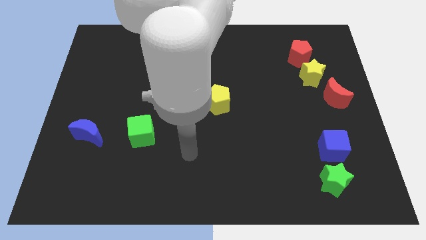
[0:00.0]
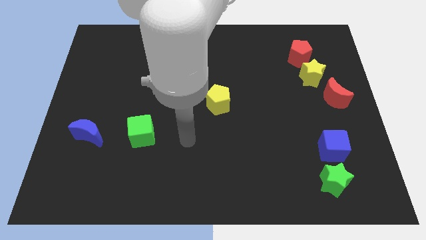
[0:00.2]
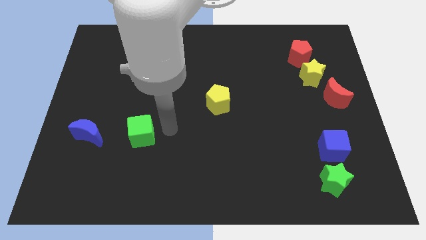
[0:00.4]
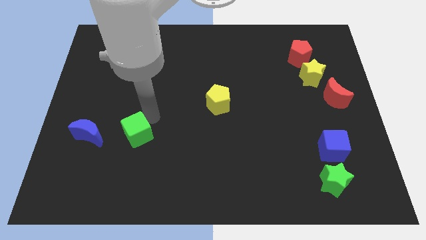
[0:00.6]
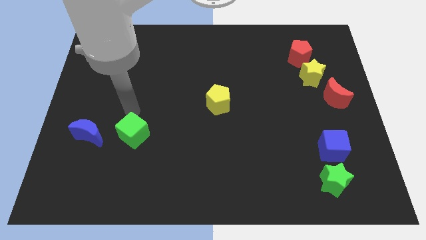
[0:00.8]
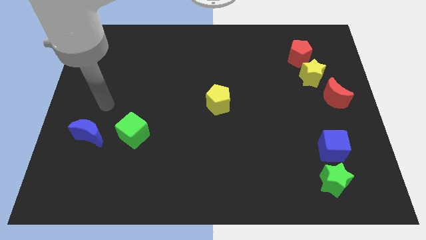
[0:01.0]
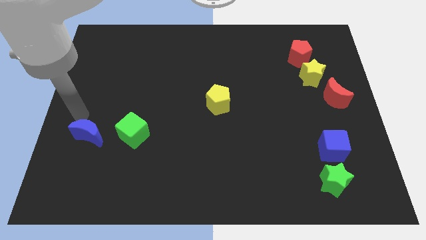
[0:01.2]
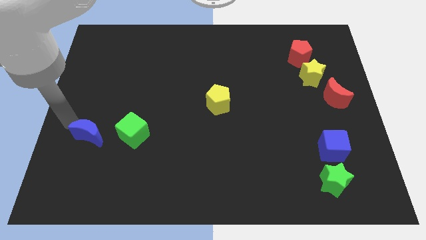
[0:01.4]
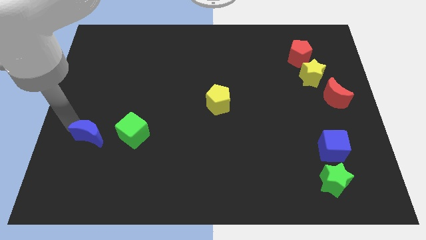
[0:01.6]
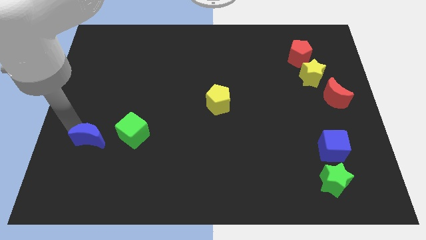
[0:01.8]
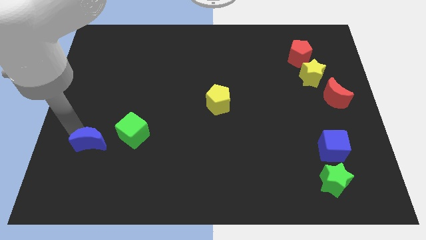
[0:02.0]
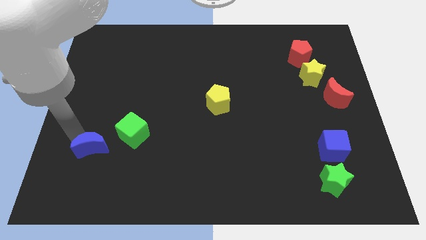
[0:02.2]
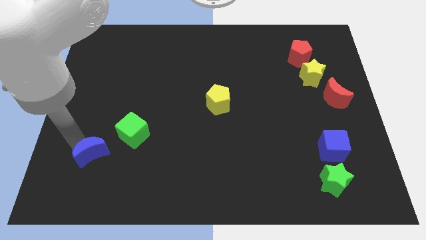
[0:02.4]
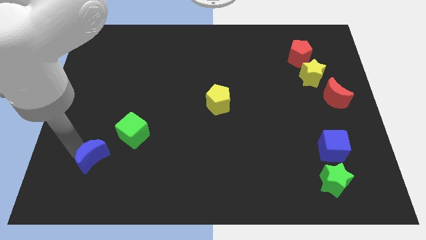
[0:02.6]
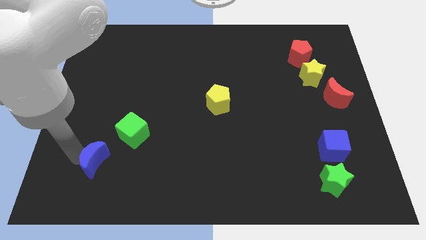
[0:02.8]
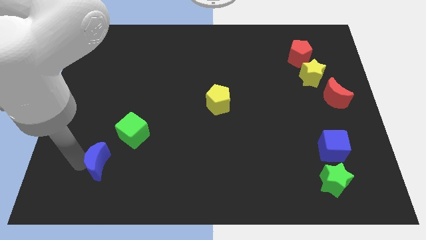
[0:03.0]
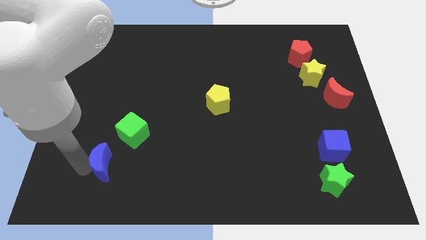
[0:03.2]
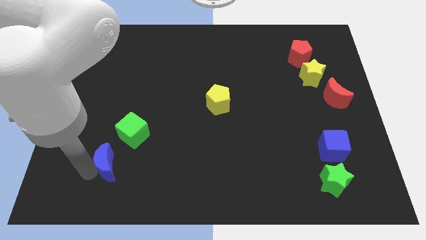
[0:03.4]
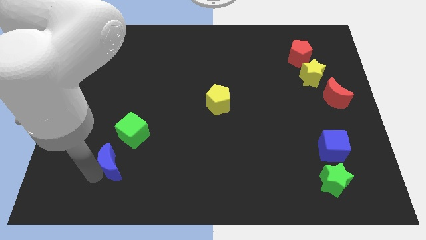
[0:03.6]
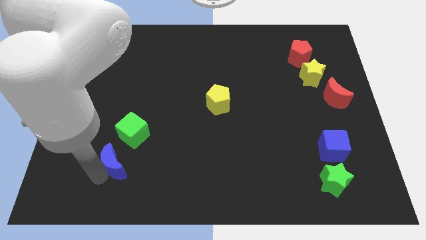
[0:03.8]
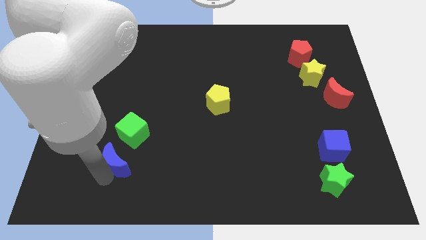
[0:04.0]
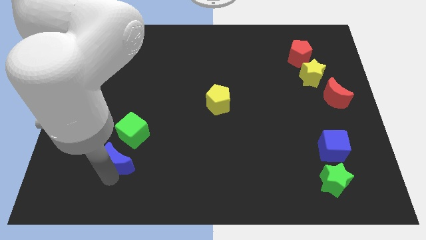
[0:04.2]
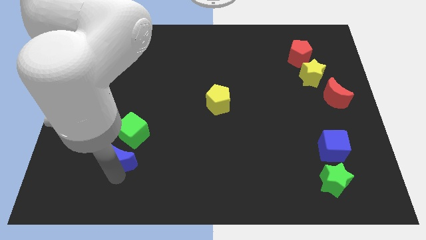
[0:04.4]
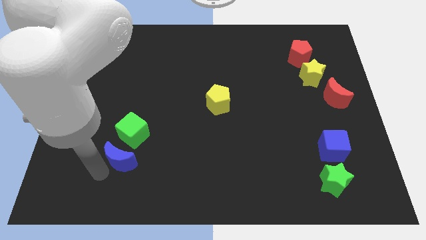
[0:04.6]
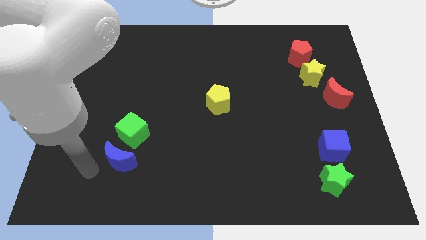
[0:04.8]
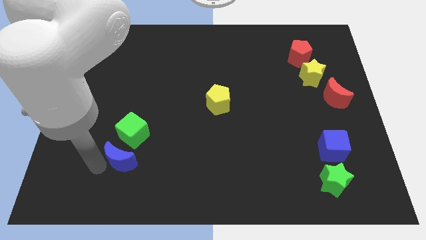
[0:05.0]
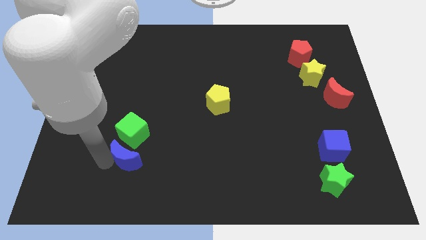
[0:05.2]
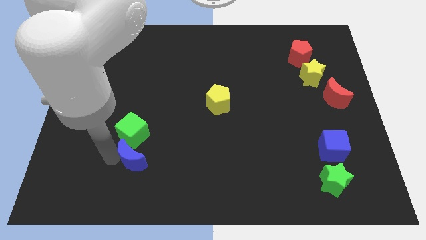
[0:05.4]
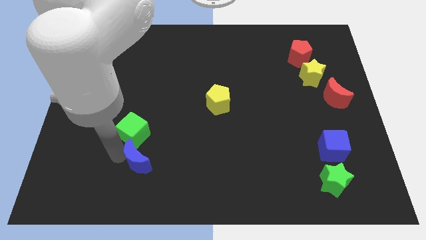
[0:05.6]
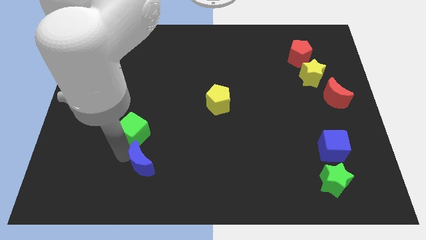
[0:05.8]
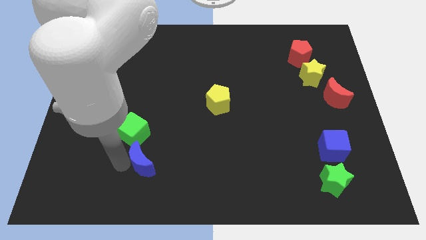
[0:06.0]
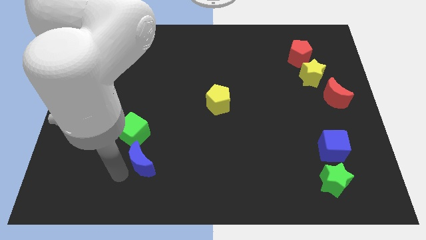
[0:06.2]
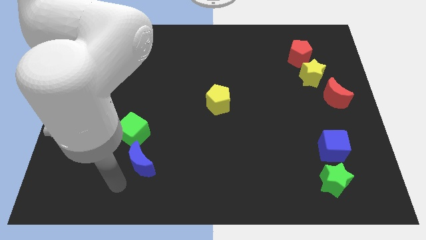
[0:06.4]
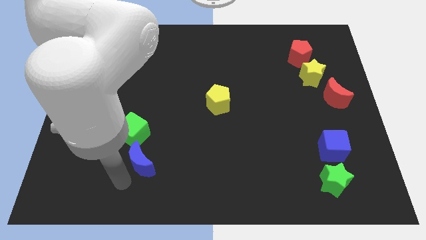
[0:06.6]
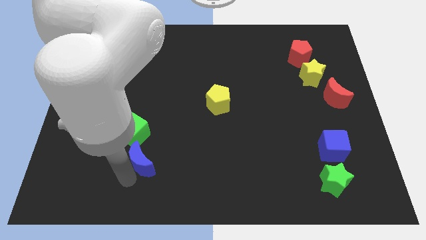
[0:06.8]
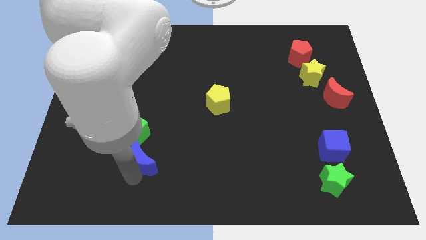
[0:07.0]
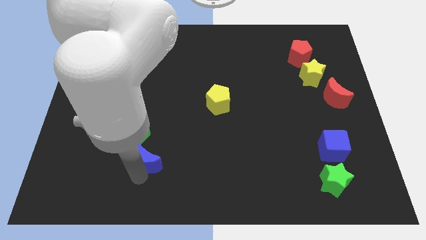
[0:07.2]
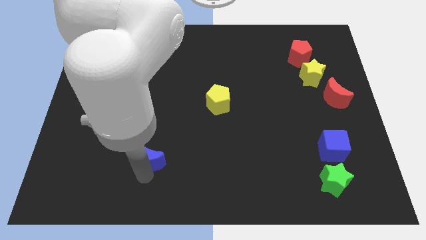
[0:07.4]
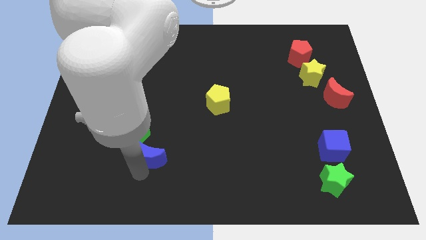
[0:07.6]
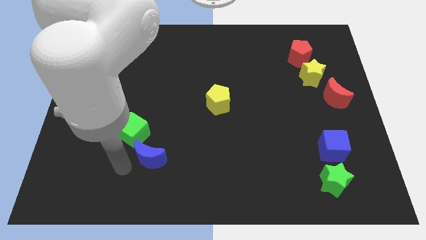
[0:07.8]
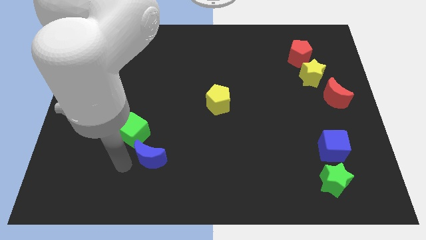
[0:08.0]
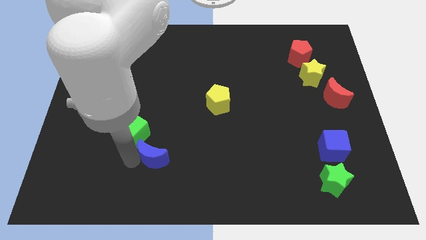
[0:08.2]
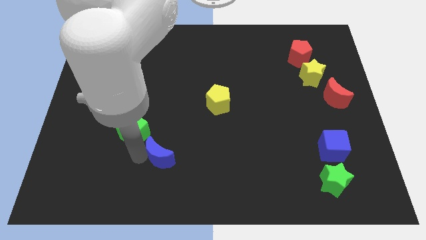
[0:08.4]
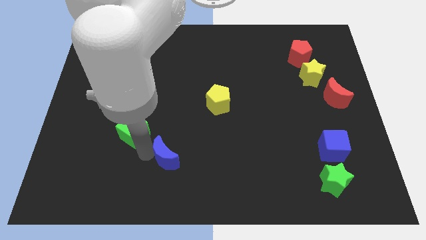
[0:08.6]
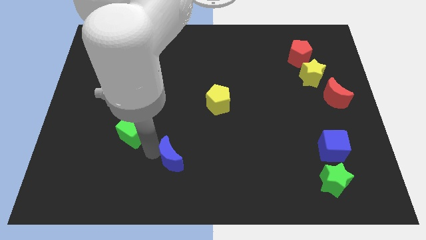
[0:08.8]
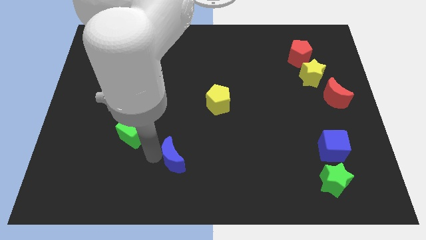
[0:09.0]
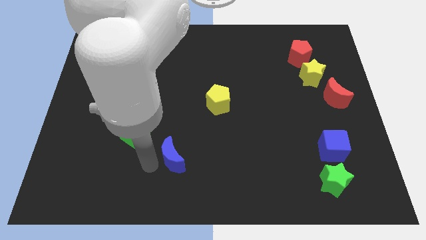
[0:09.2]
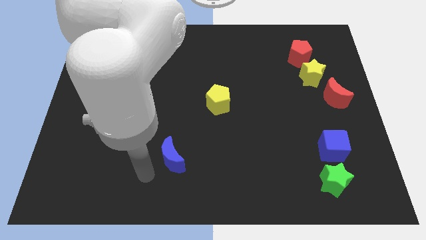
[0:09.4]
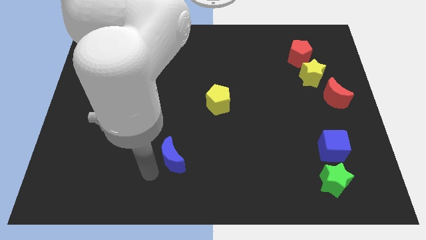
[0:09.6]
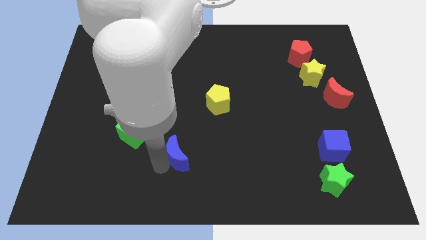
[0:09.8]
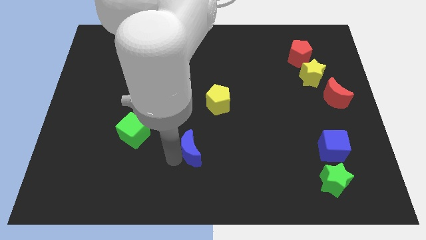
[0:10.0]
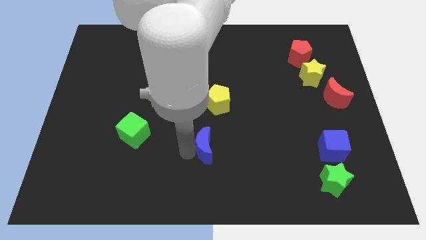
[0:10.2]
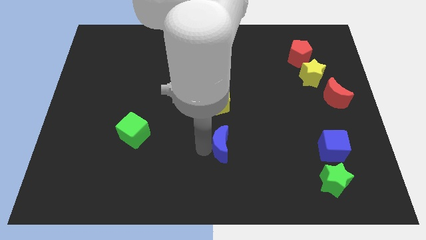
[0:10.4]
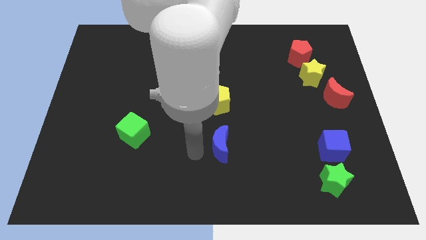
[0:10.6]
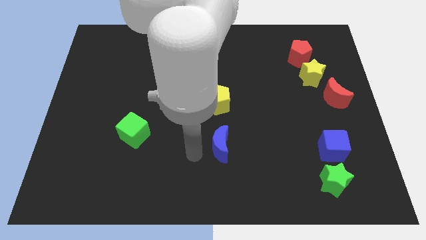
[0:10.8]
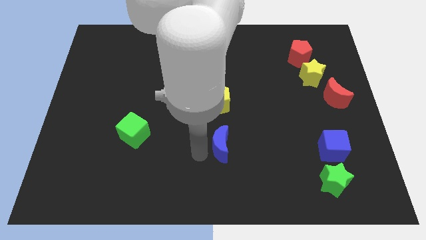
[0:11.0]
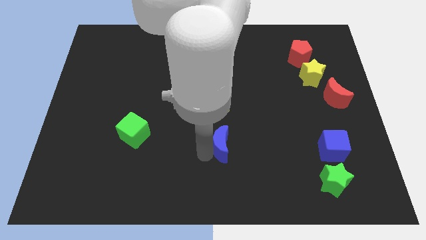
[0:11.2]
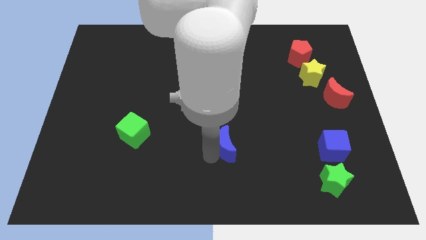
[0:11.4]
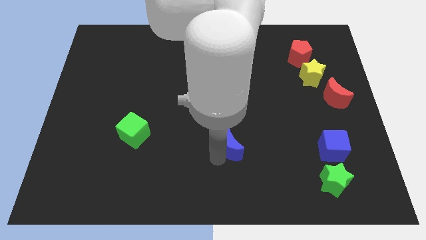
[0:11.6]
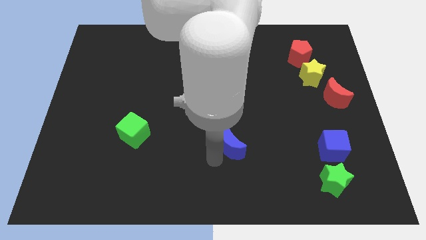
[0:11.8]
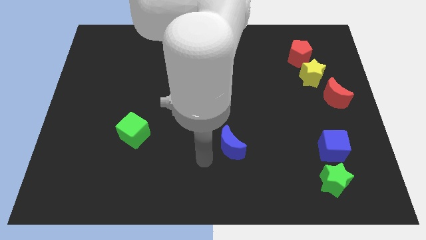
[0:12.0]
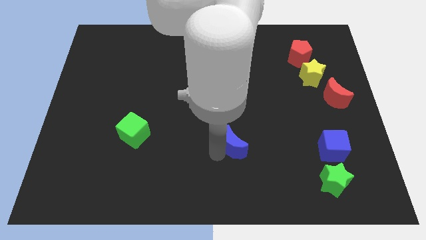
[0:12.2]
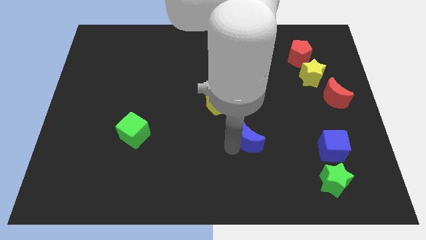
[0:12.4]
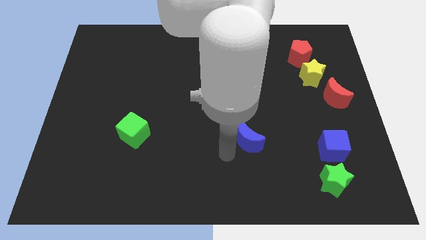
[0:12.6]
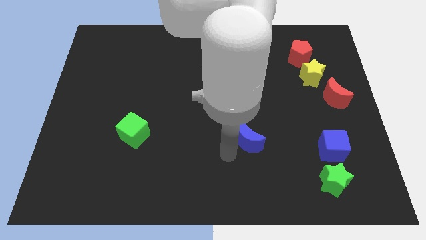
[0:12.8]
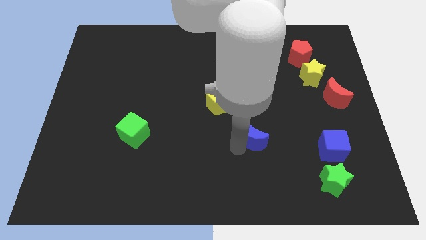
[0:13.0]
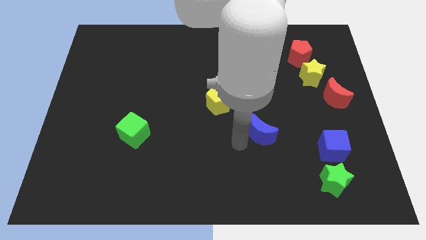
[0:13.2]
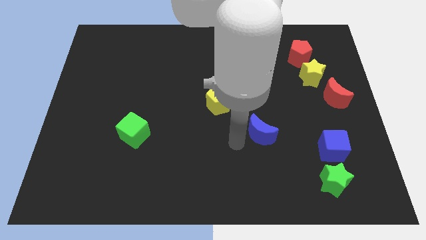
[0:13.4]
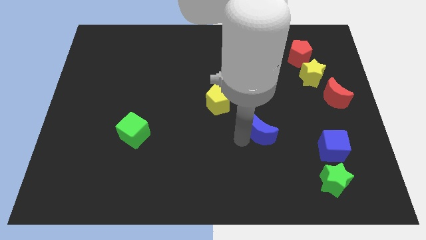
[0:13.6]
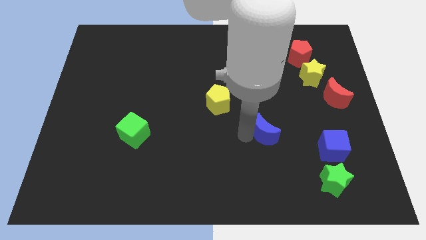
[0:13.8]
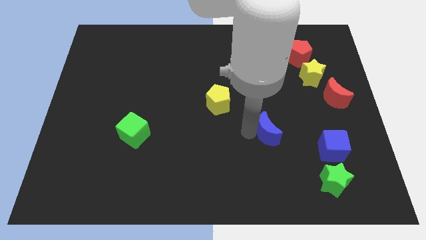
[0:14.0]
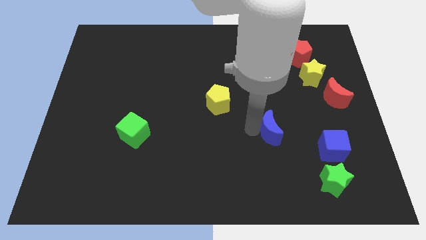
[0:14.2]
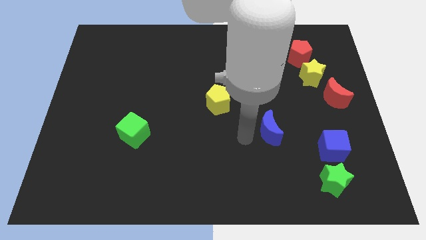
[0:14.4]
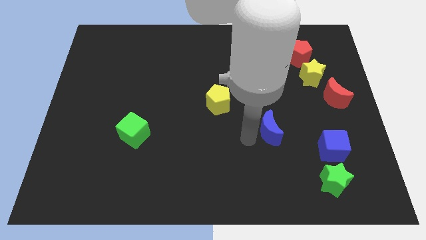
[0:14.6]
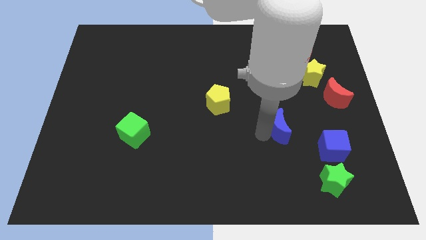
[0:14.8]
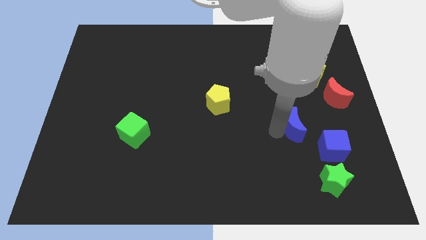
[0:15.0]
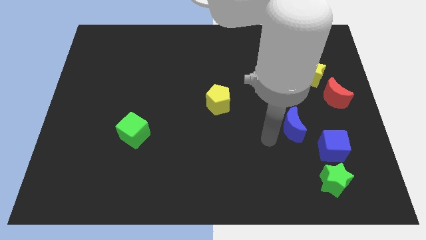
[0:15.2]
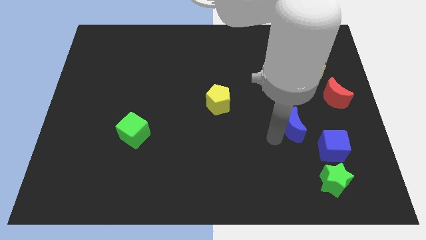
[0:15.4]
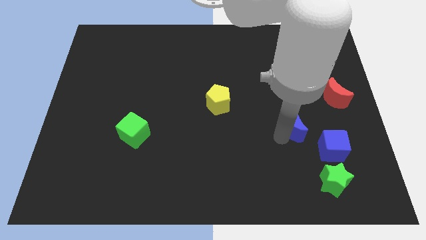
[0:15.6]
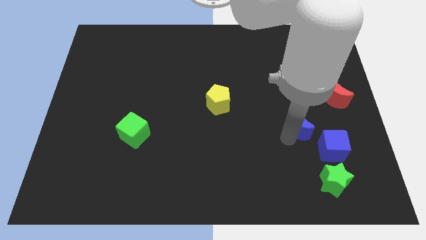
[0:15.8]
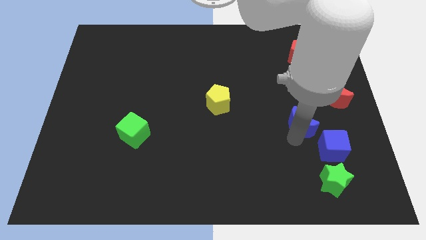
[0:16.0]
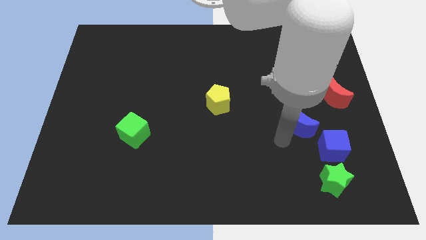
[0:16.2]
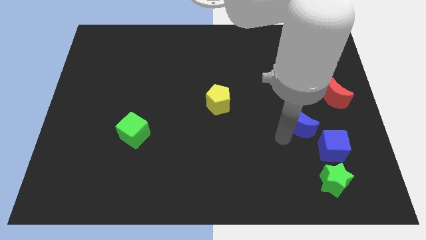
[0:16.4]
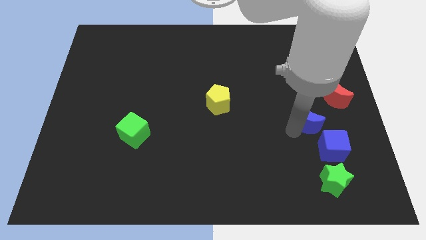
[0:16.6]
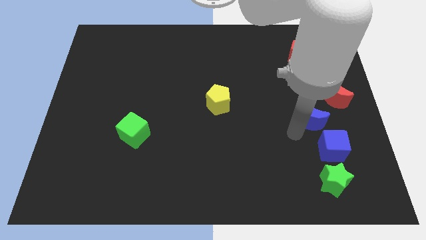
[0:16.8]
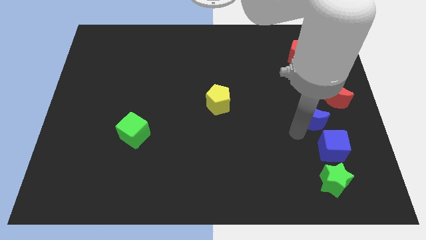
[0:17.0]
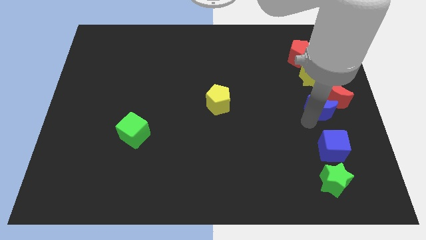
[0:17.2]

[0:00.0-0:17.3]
slide the blue moon to the red moon
